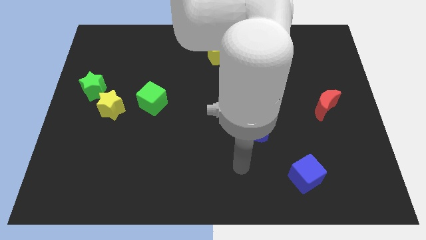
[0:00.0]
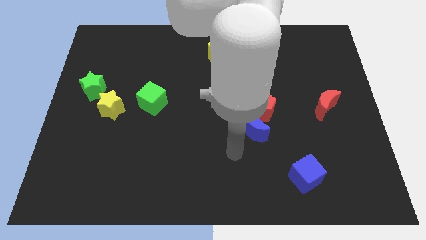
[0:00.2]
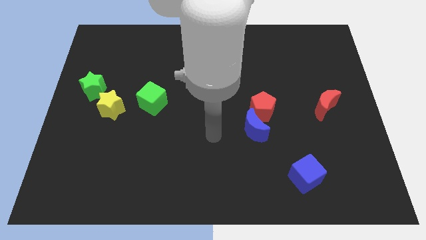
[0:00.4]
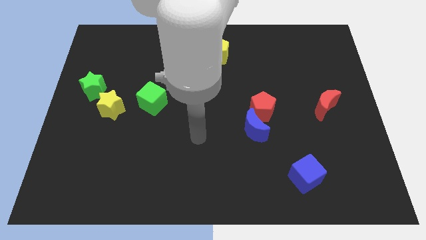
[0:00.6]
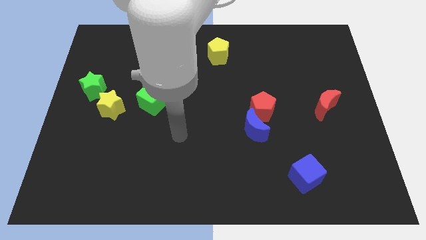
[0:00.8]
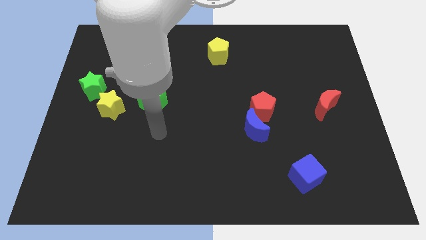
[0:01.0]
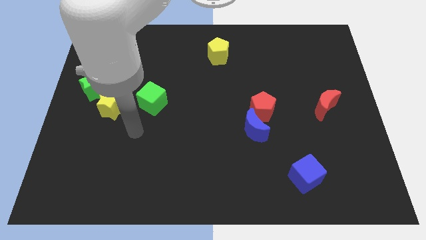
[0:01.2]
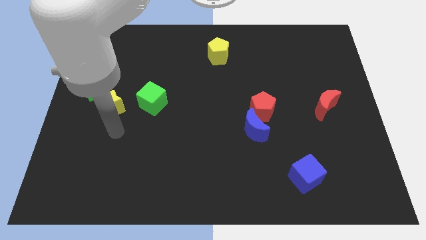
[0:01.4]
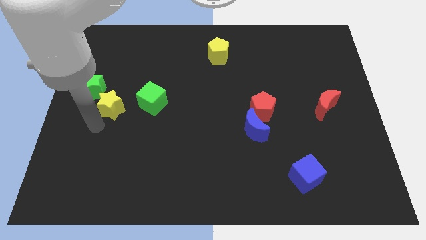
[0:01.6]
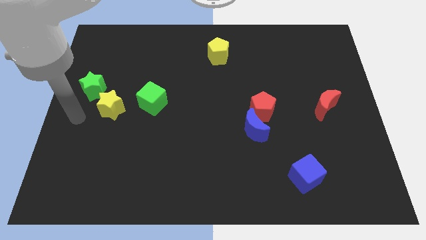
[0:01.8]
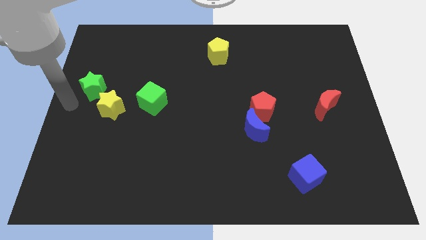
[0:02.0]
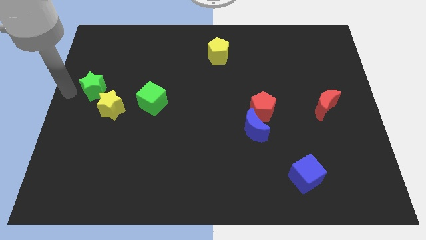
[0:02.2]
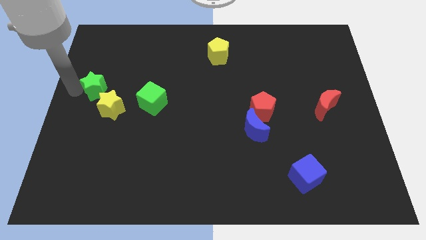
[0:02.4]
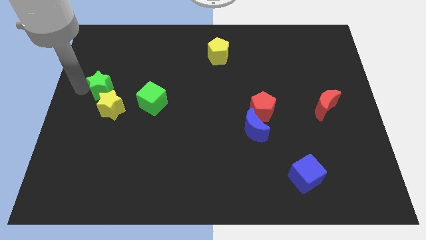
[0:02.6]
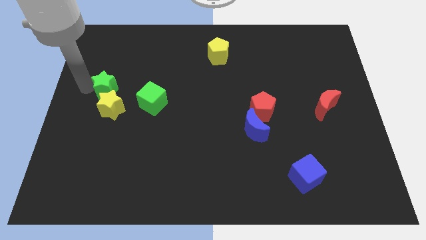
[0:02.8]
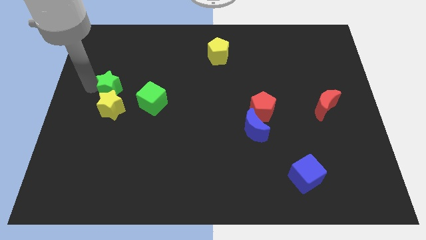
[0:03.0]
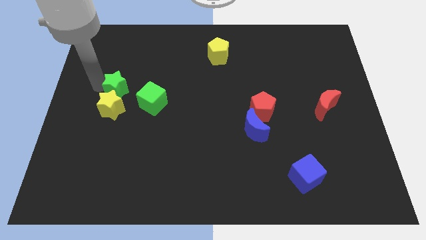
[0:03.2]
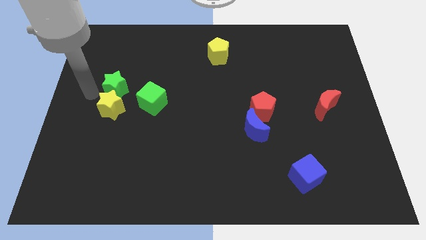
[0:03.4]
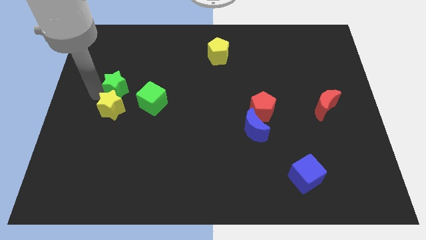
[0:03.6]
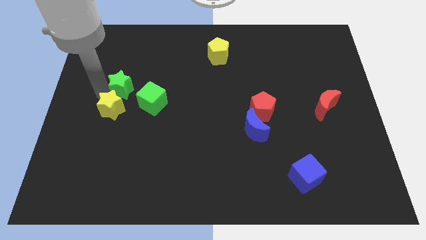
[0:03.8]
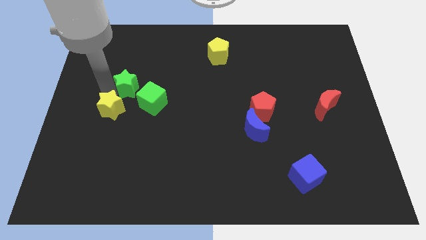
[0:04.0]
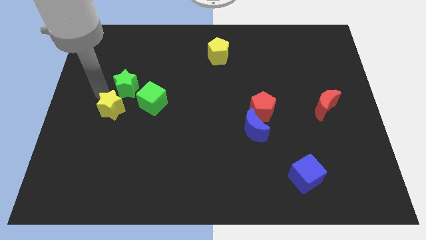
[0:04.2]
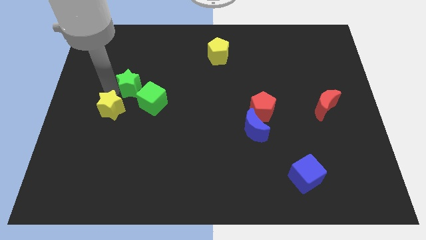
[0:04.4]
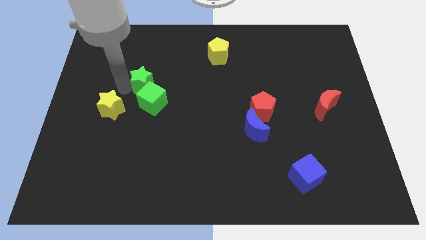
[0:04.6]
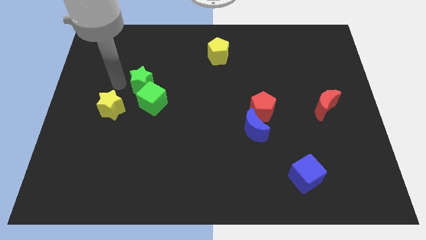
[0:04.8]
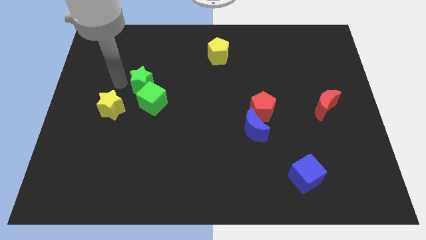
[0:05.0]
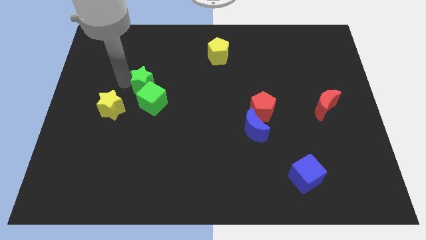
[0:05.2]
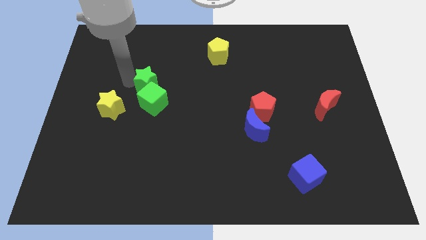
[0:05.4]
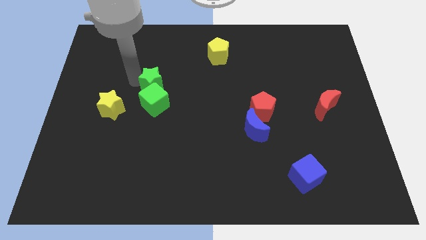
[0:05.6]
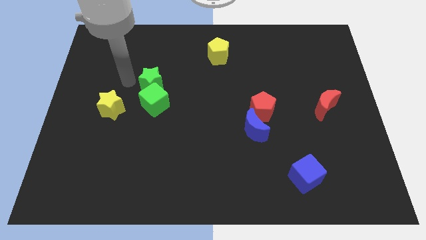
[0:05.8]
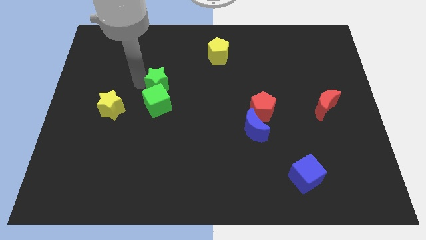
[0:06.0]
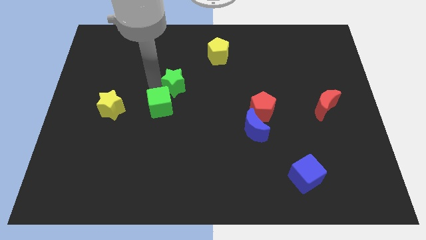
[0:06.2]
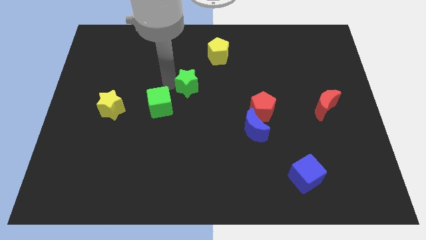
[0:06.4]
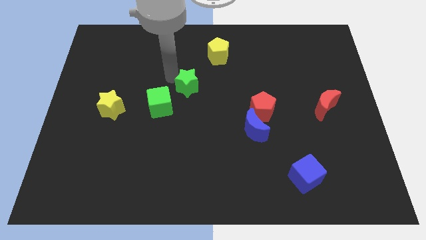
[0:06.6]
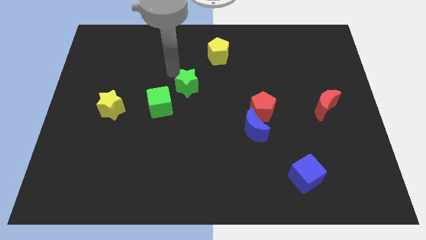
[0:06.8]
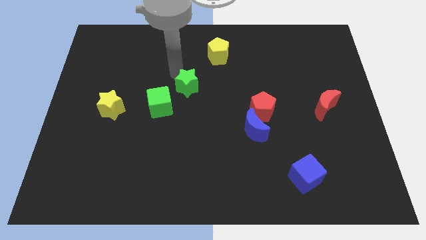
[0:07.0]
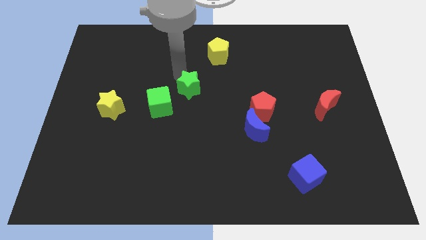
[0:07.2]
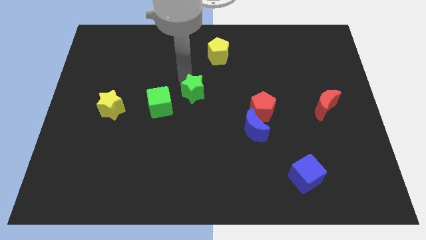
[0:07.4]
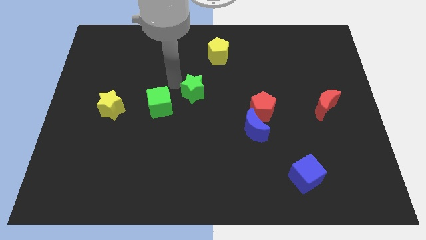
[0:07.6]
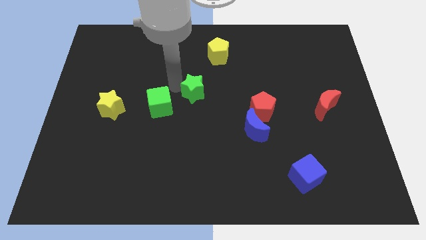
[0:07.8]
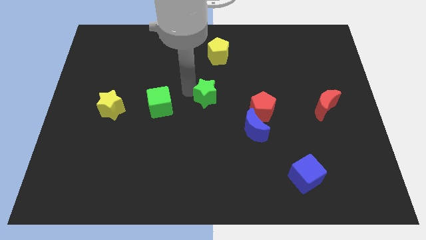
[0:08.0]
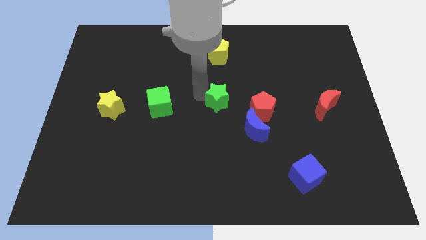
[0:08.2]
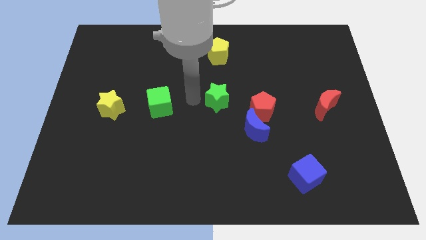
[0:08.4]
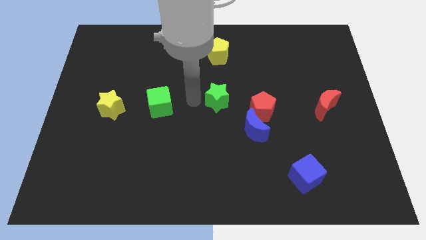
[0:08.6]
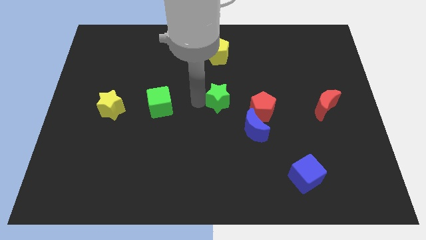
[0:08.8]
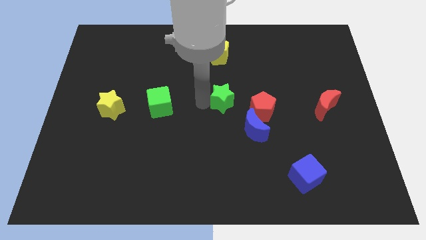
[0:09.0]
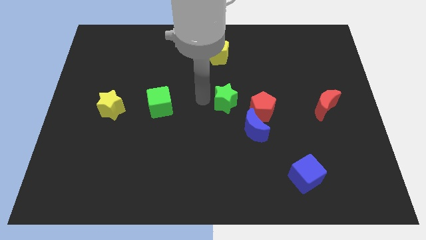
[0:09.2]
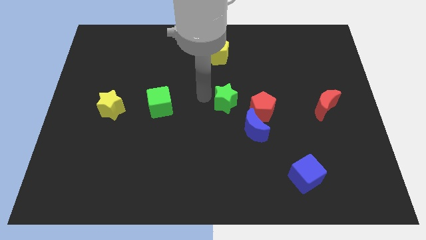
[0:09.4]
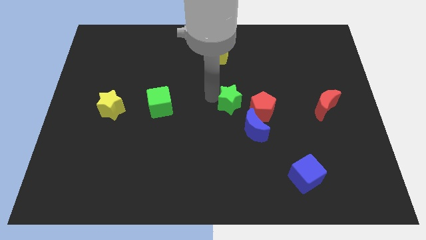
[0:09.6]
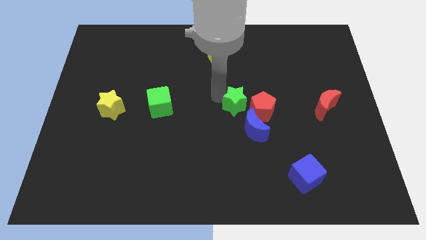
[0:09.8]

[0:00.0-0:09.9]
slide the green star close to the red pentagon

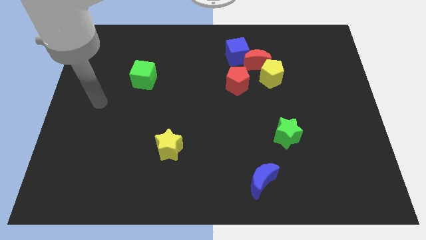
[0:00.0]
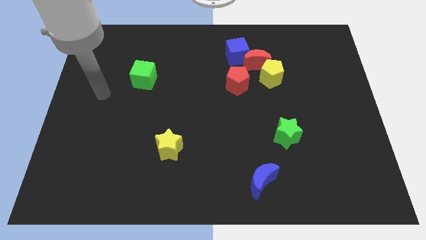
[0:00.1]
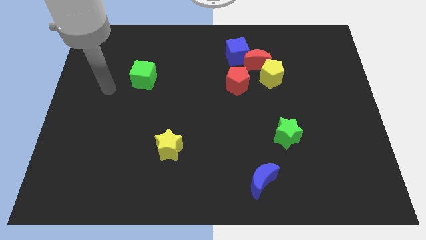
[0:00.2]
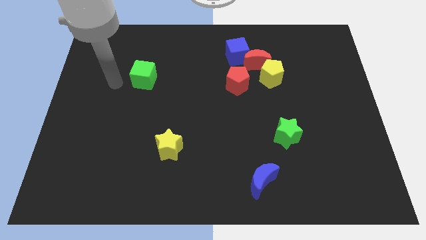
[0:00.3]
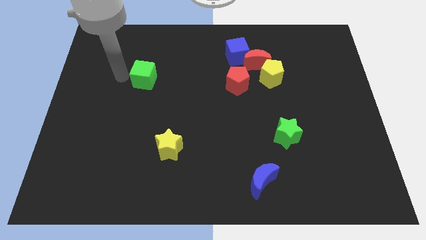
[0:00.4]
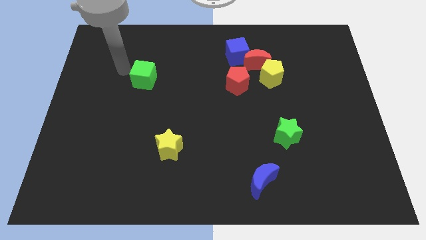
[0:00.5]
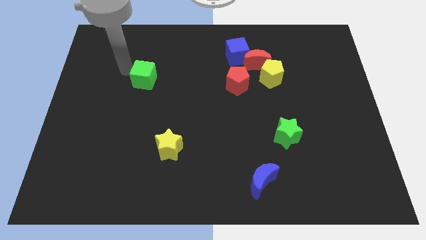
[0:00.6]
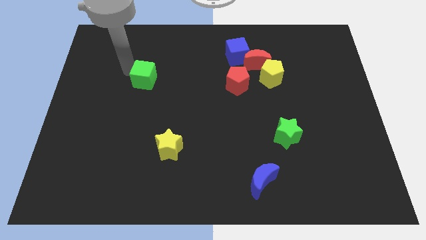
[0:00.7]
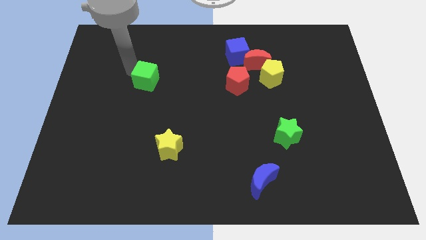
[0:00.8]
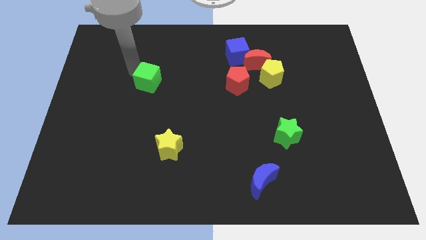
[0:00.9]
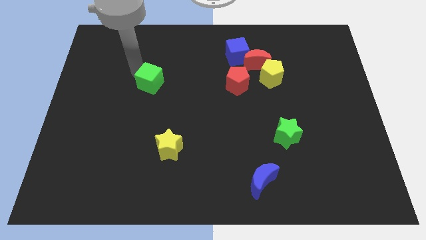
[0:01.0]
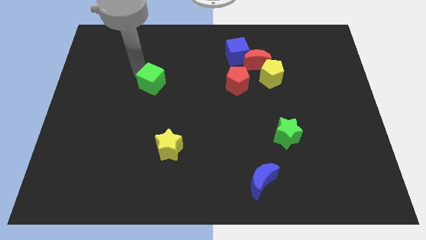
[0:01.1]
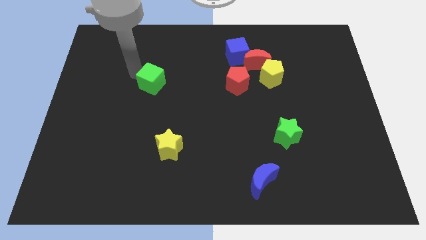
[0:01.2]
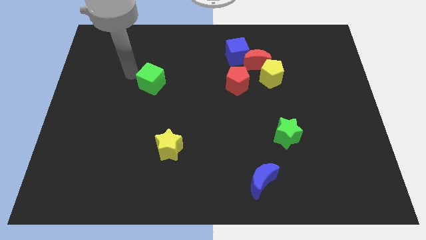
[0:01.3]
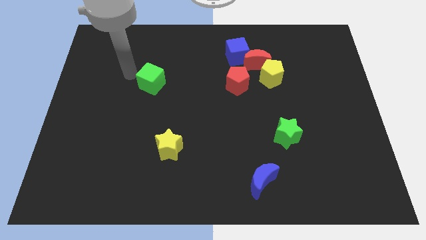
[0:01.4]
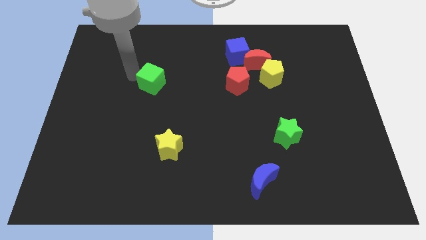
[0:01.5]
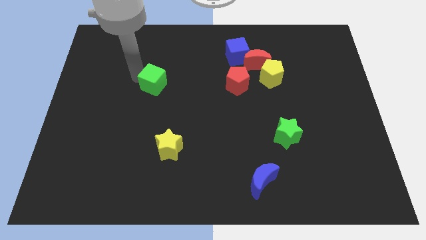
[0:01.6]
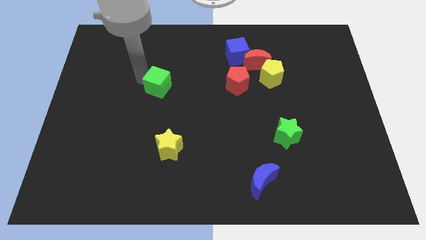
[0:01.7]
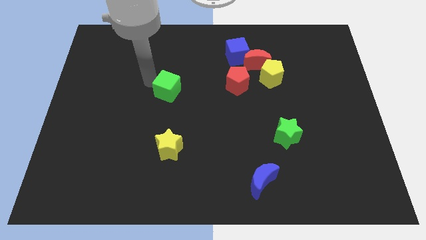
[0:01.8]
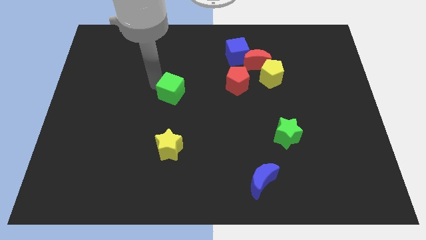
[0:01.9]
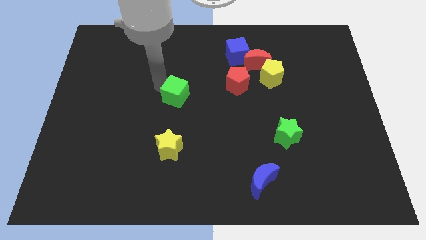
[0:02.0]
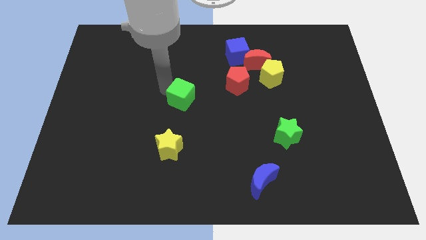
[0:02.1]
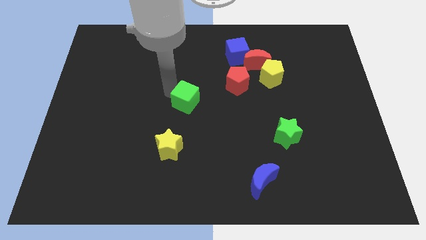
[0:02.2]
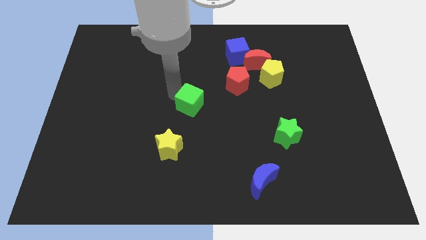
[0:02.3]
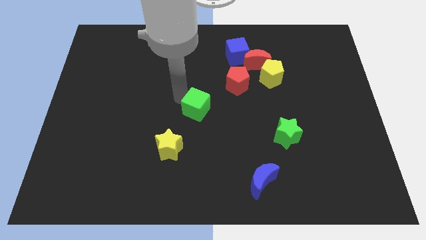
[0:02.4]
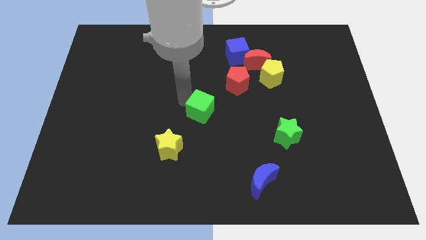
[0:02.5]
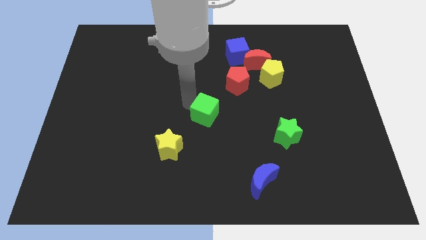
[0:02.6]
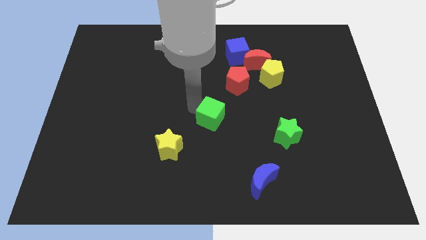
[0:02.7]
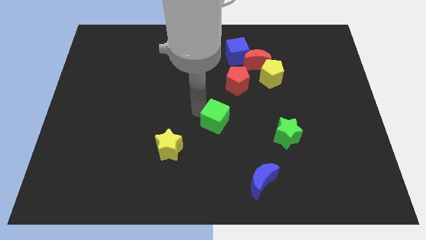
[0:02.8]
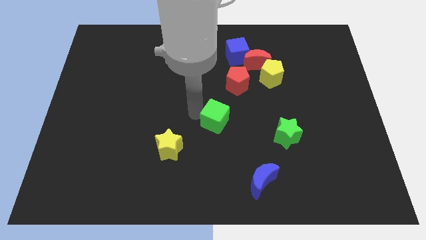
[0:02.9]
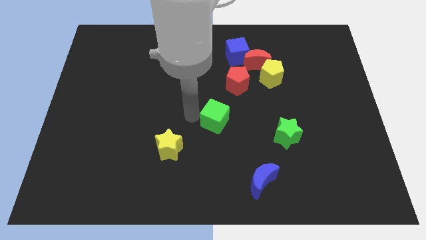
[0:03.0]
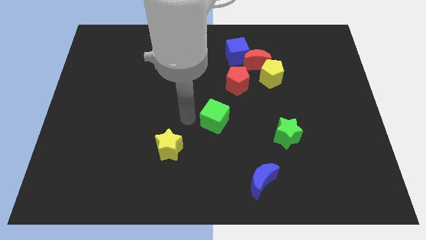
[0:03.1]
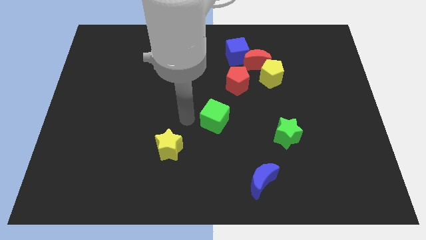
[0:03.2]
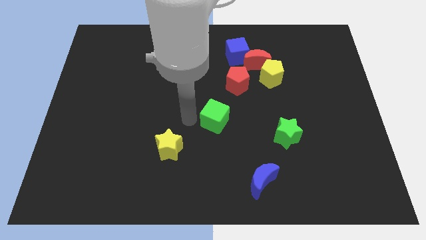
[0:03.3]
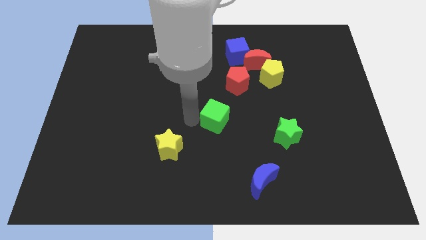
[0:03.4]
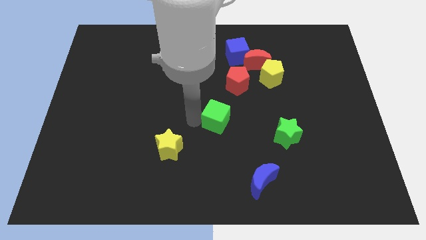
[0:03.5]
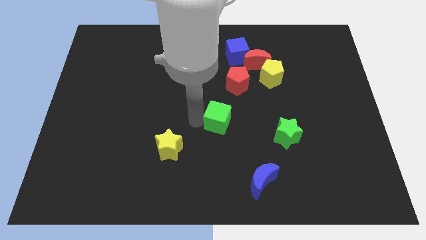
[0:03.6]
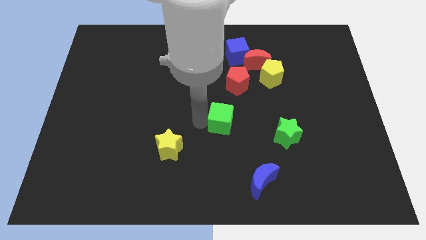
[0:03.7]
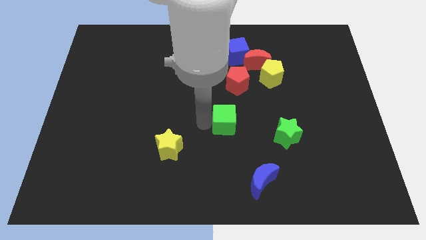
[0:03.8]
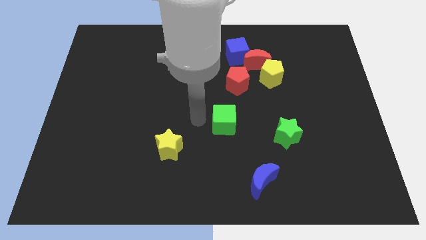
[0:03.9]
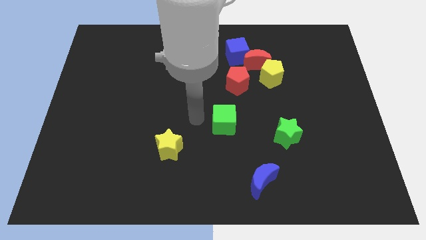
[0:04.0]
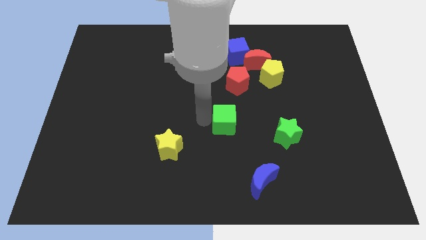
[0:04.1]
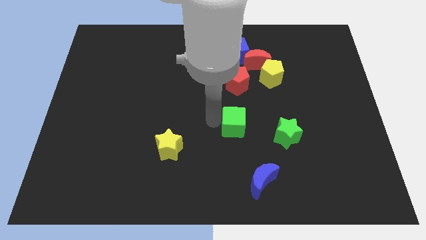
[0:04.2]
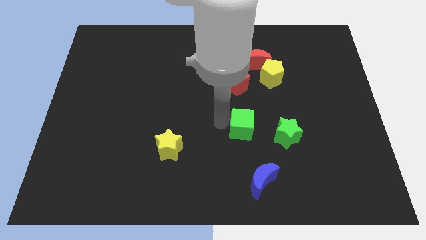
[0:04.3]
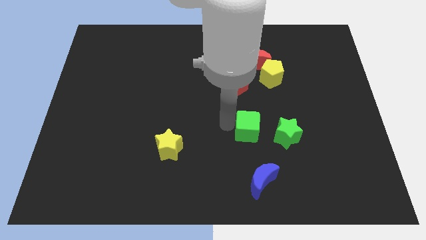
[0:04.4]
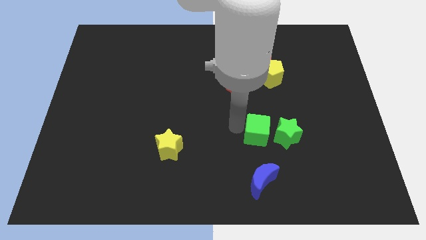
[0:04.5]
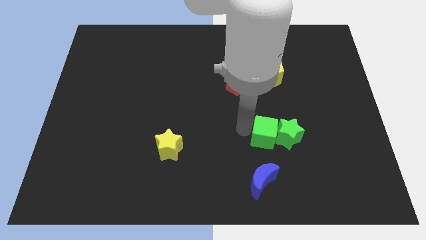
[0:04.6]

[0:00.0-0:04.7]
push the green cube next to the green star
